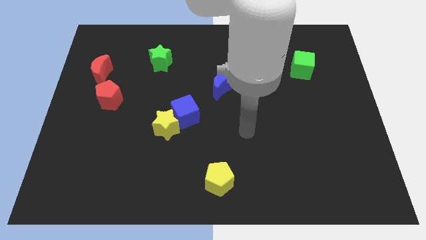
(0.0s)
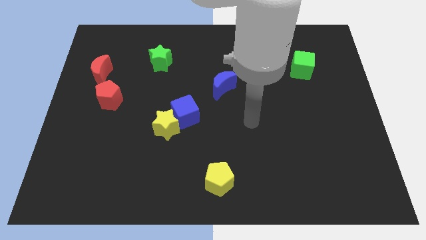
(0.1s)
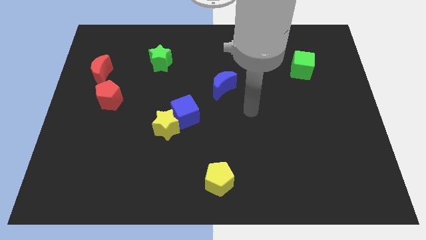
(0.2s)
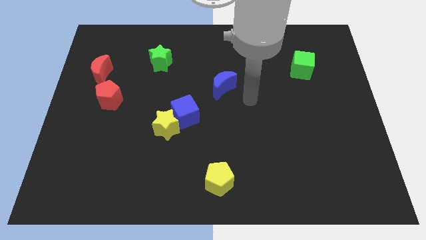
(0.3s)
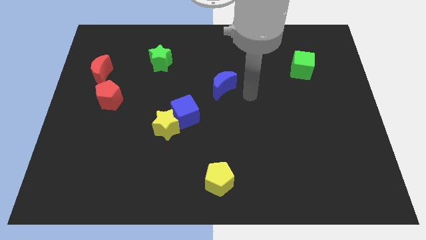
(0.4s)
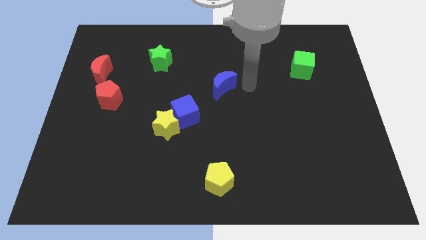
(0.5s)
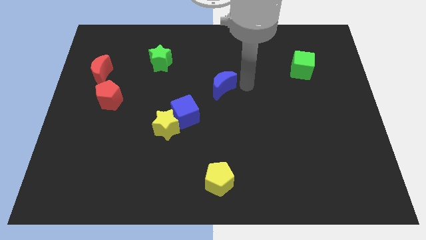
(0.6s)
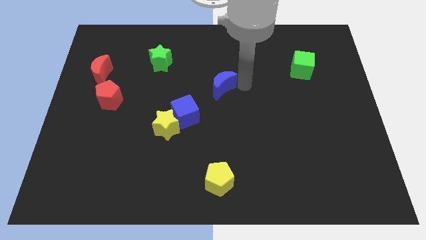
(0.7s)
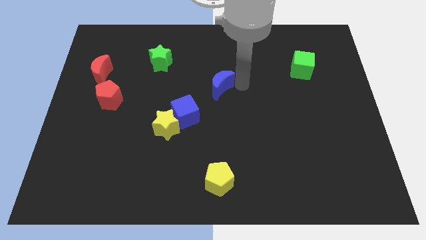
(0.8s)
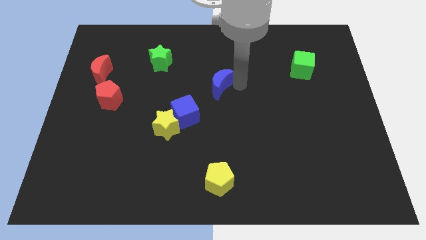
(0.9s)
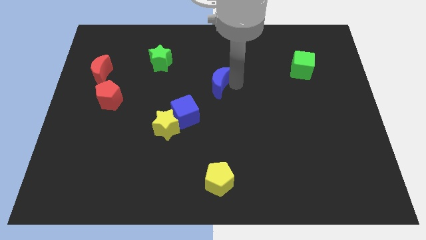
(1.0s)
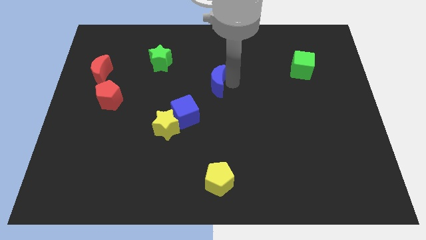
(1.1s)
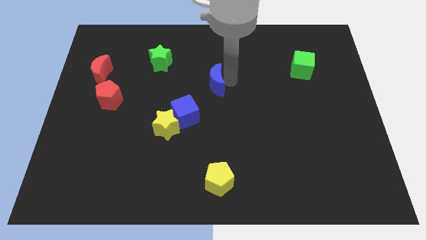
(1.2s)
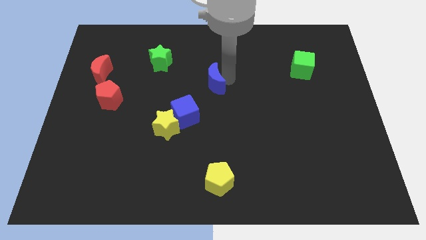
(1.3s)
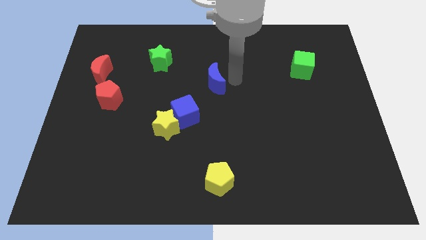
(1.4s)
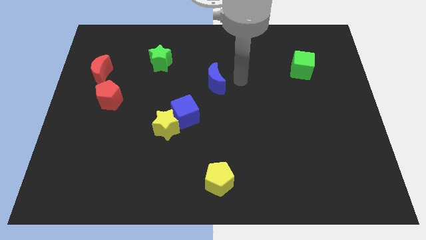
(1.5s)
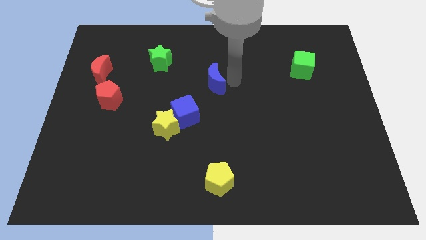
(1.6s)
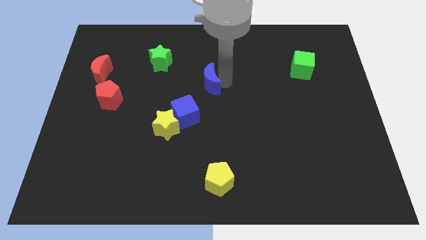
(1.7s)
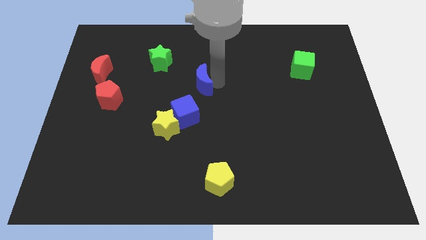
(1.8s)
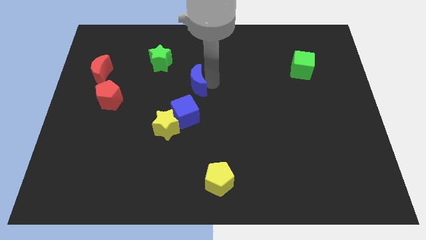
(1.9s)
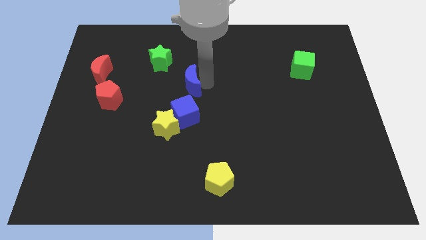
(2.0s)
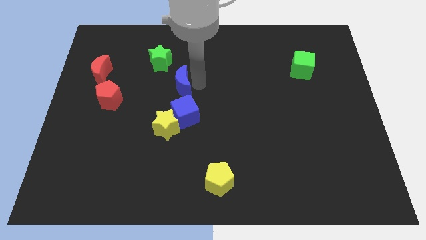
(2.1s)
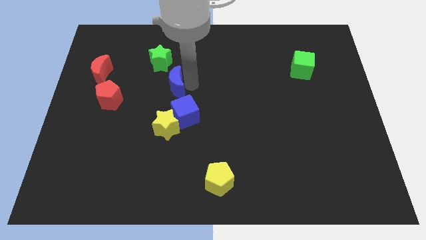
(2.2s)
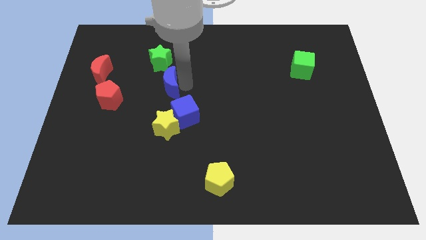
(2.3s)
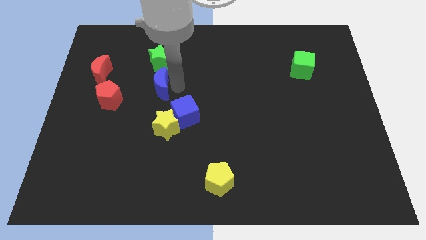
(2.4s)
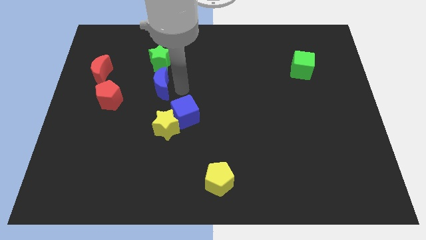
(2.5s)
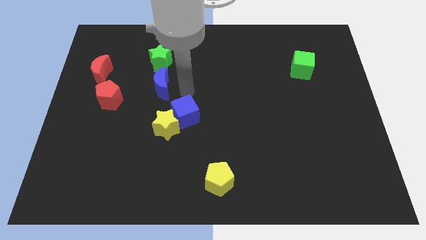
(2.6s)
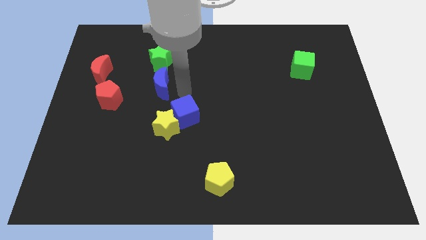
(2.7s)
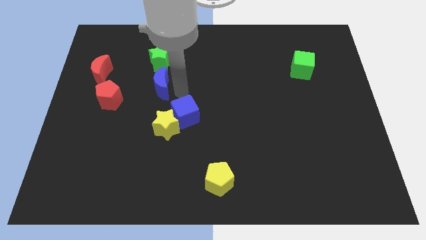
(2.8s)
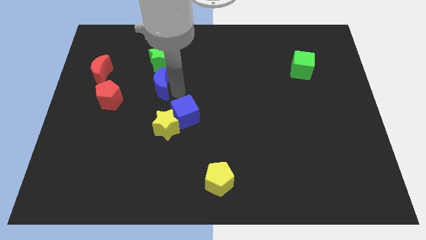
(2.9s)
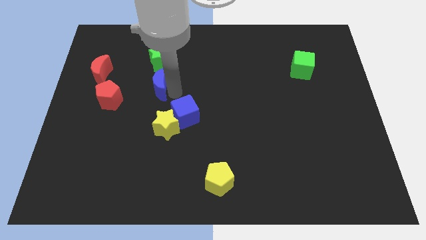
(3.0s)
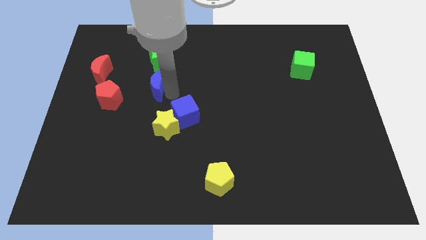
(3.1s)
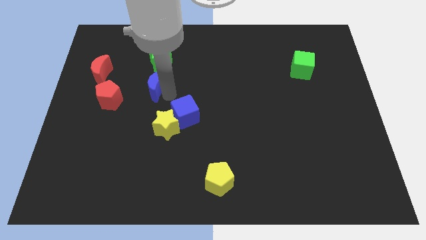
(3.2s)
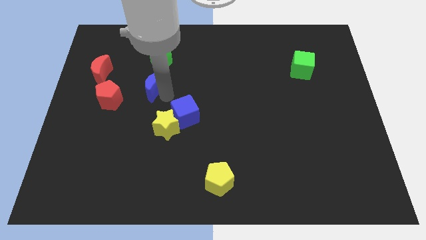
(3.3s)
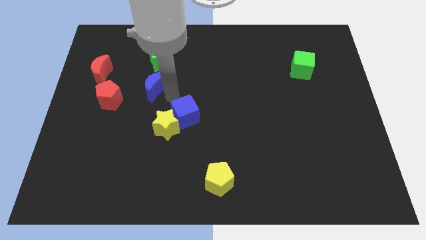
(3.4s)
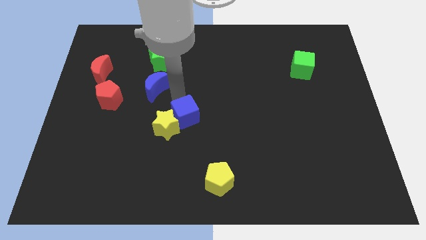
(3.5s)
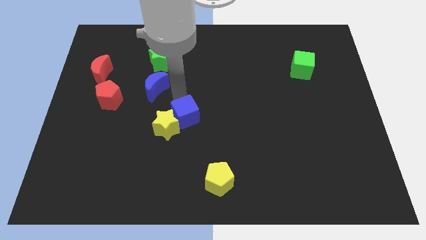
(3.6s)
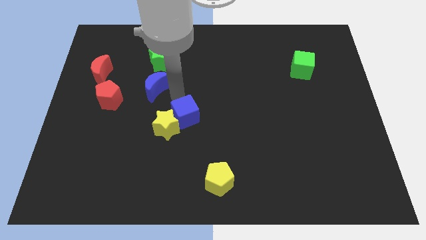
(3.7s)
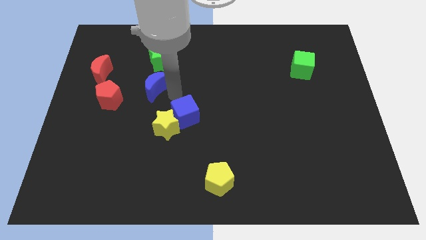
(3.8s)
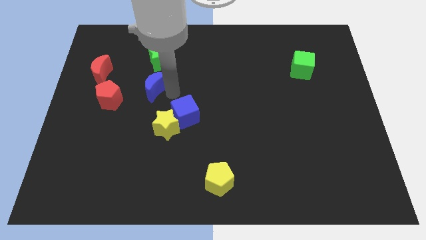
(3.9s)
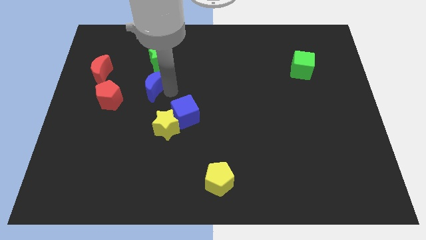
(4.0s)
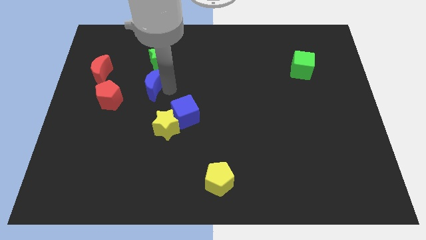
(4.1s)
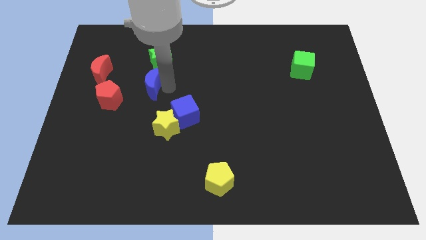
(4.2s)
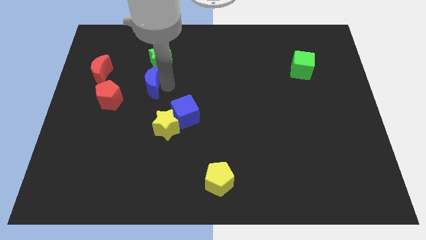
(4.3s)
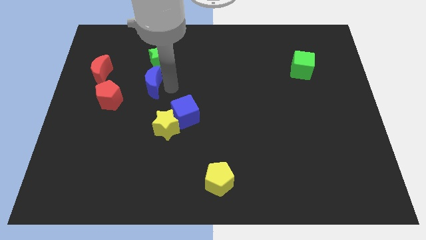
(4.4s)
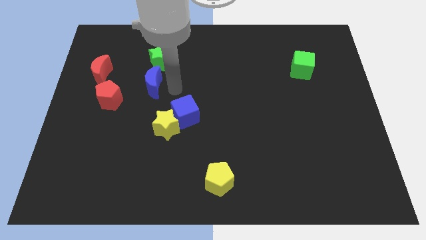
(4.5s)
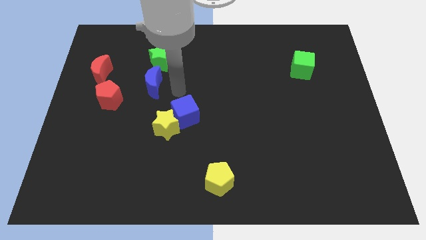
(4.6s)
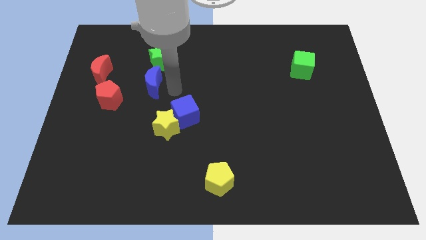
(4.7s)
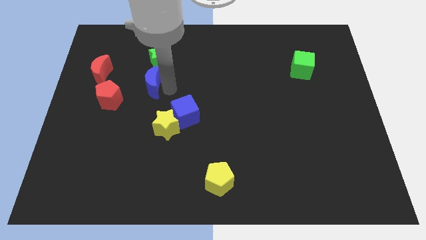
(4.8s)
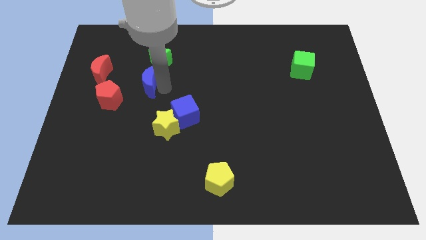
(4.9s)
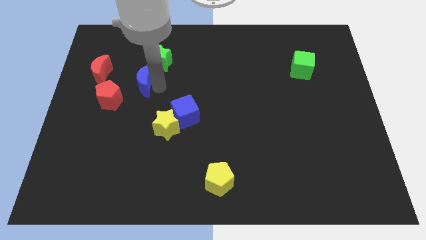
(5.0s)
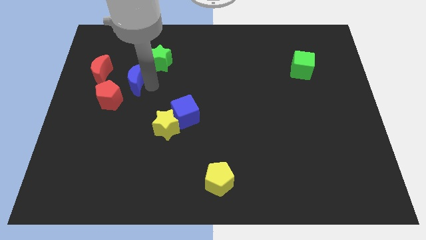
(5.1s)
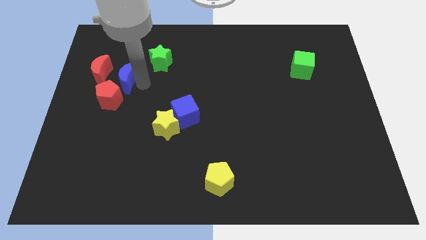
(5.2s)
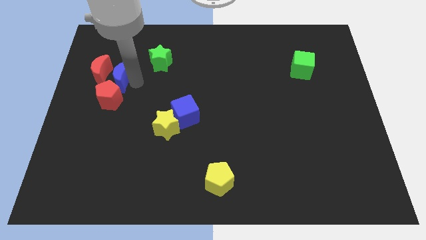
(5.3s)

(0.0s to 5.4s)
push the blue moon towards the red moon

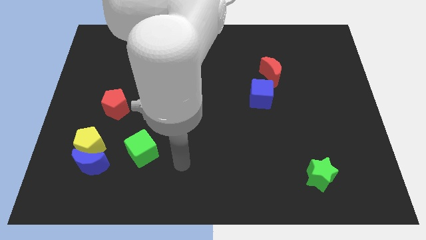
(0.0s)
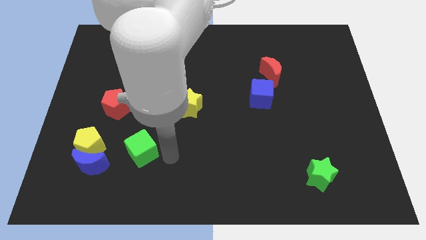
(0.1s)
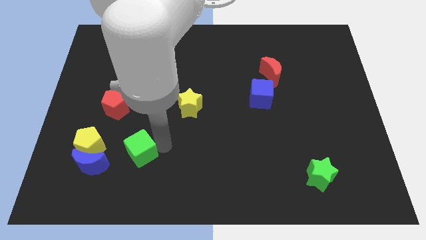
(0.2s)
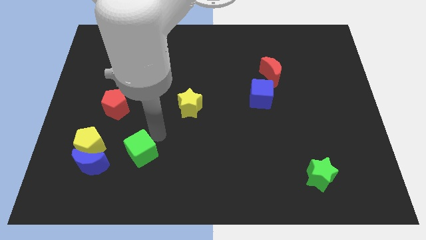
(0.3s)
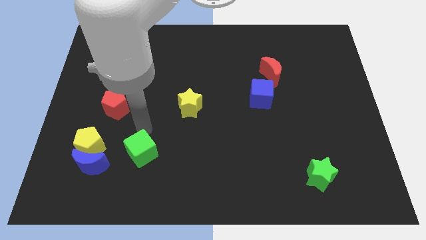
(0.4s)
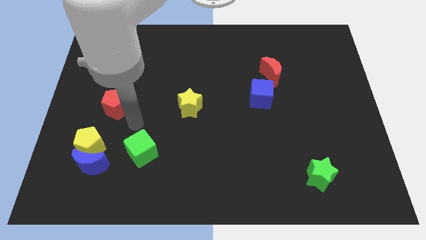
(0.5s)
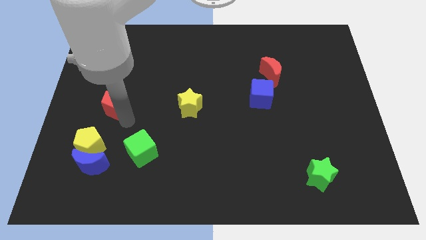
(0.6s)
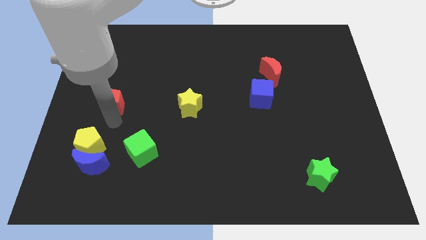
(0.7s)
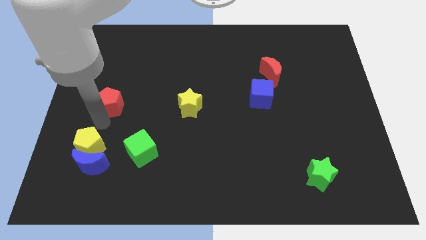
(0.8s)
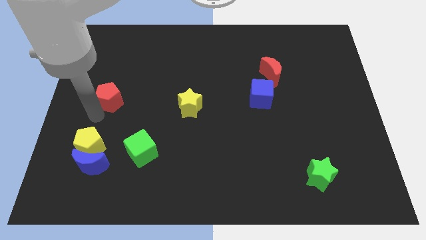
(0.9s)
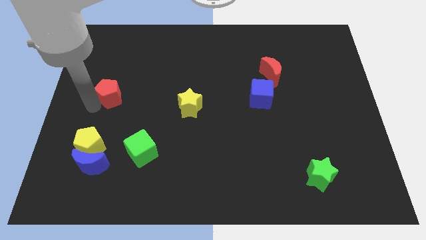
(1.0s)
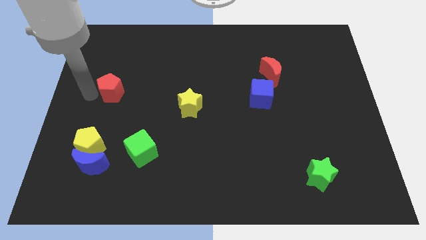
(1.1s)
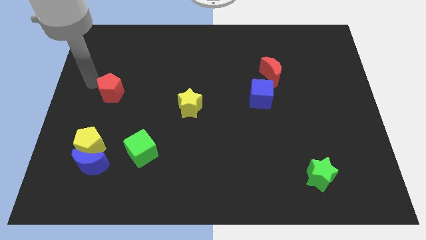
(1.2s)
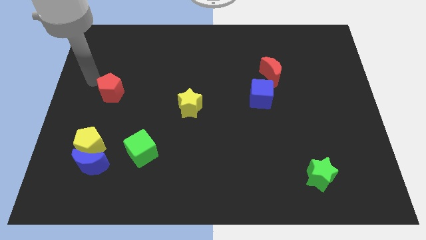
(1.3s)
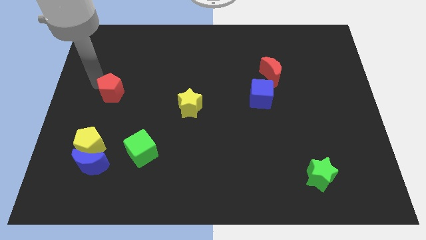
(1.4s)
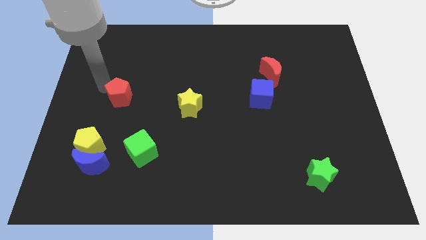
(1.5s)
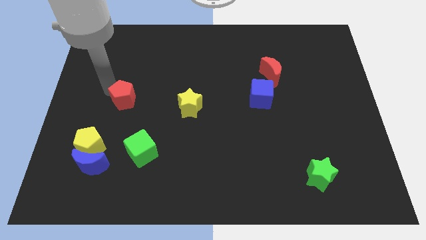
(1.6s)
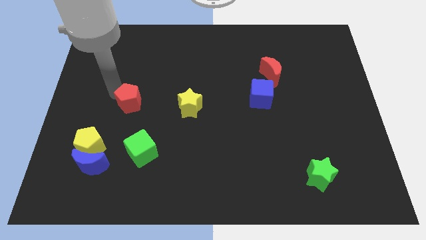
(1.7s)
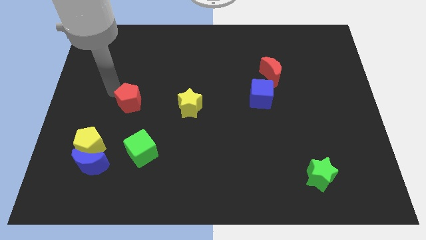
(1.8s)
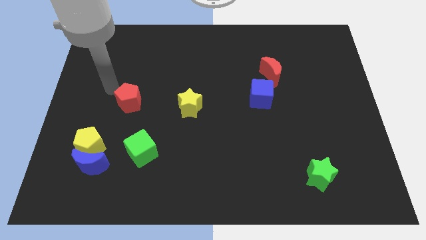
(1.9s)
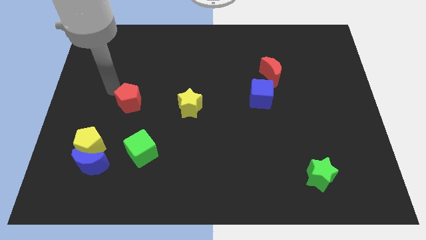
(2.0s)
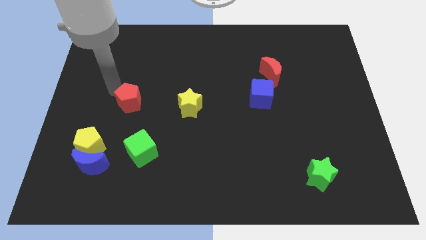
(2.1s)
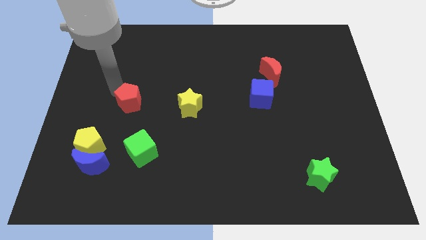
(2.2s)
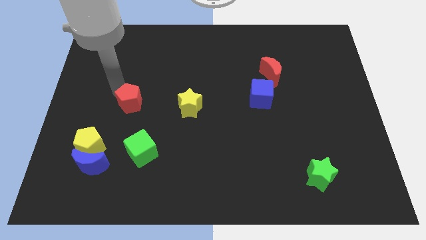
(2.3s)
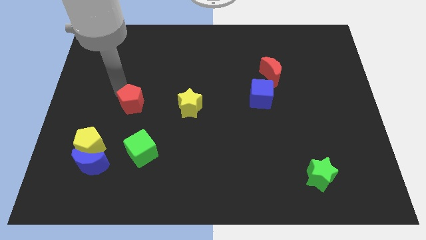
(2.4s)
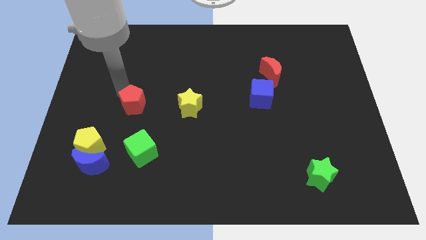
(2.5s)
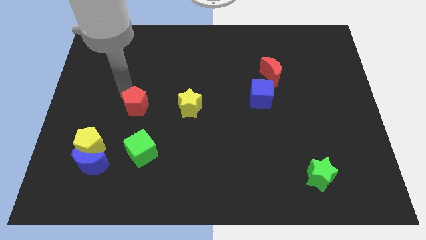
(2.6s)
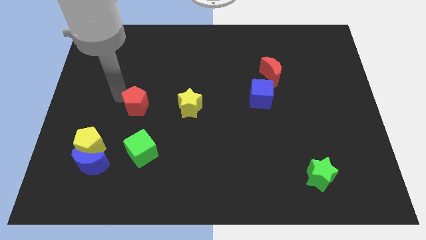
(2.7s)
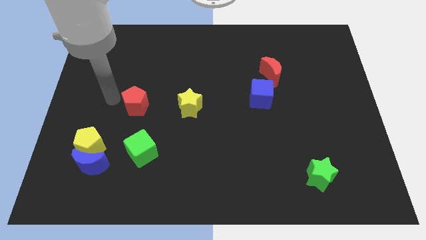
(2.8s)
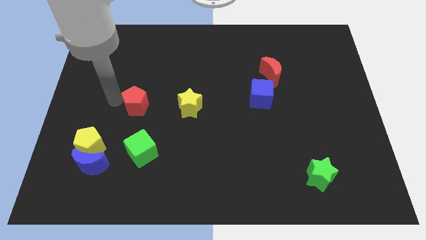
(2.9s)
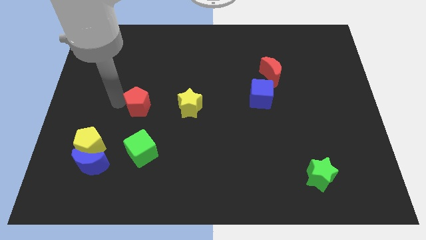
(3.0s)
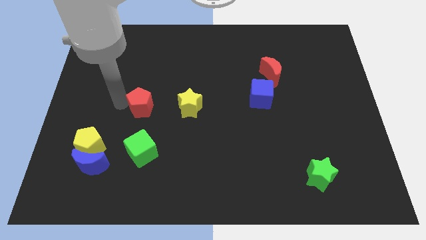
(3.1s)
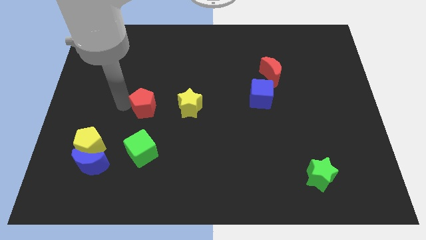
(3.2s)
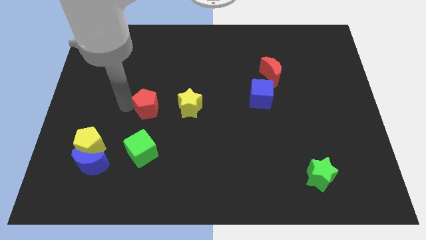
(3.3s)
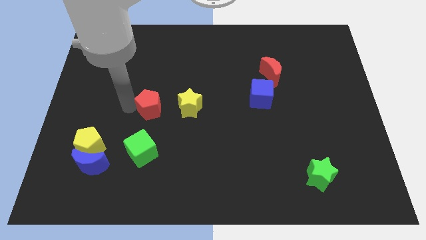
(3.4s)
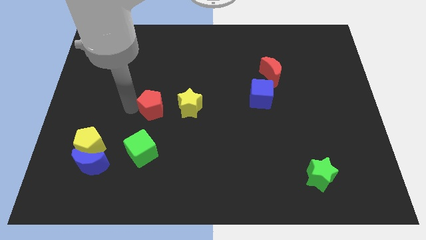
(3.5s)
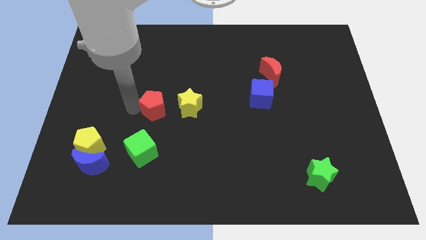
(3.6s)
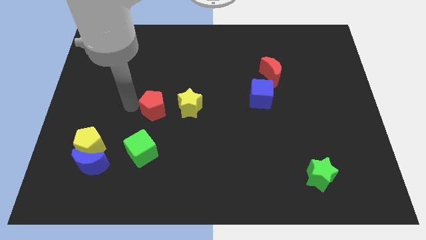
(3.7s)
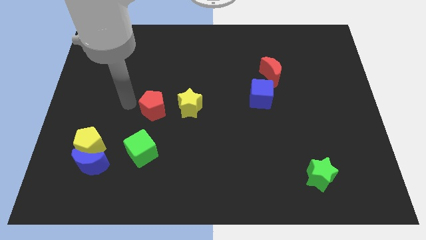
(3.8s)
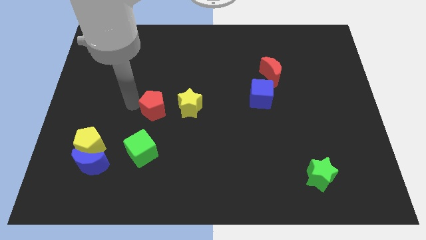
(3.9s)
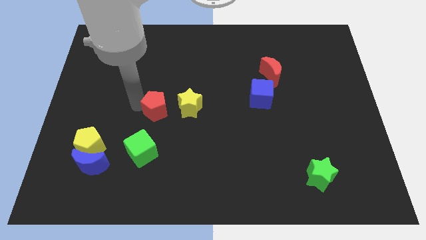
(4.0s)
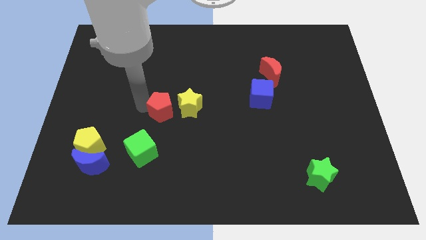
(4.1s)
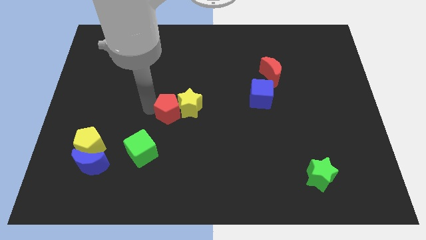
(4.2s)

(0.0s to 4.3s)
push the red pentagon close to the yellow star
